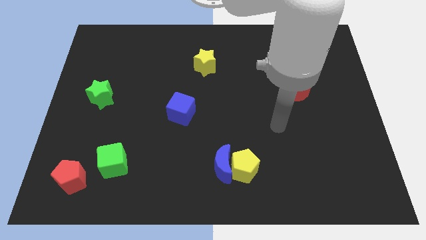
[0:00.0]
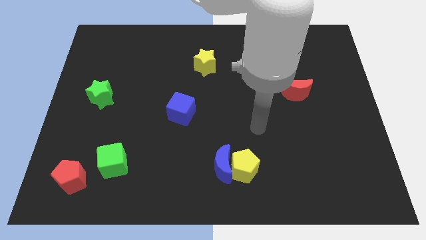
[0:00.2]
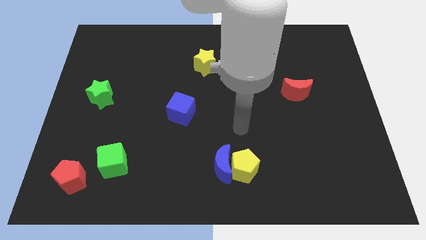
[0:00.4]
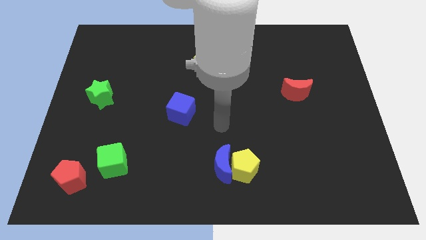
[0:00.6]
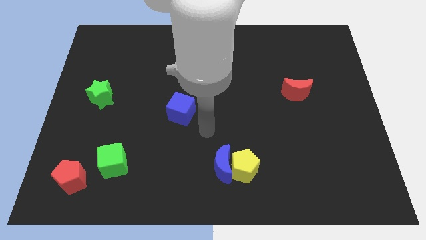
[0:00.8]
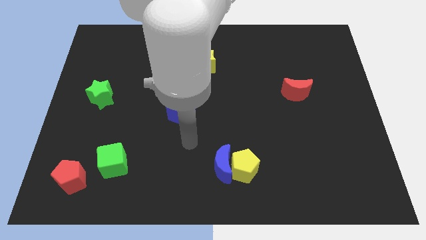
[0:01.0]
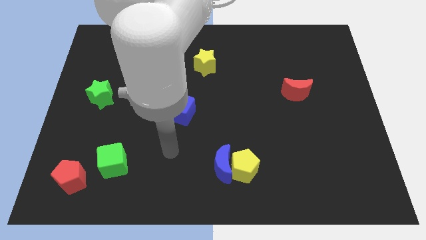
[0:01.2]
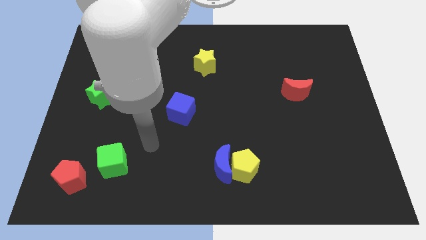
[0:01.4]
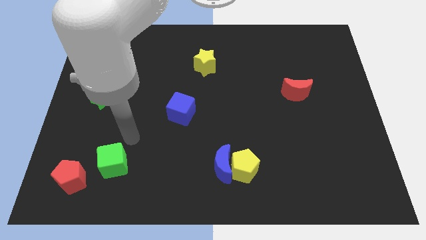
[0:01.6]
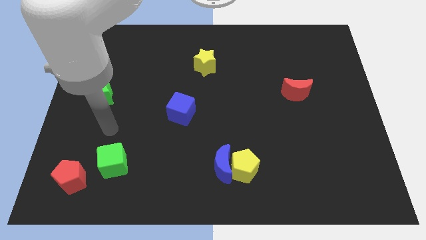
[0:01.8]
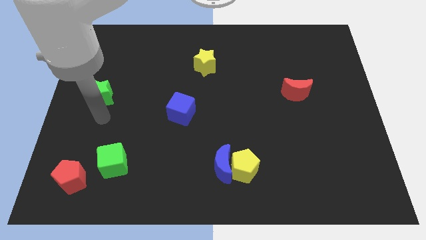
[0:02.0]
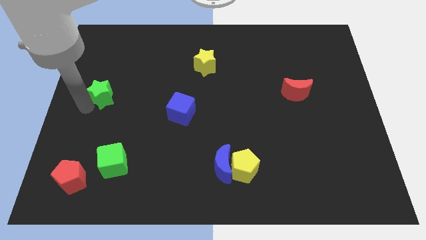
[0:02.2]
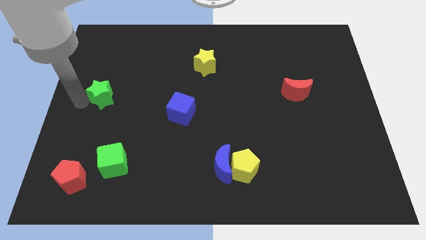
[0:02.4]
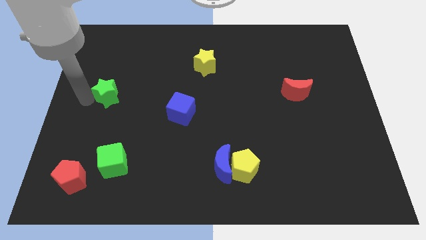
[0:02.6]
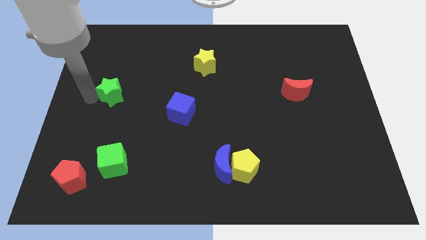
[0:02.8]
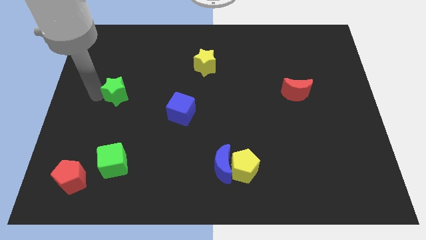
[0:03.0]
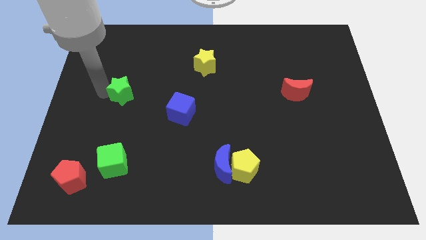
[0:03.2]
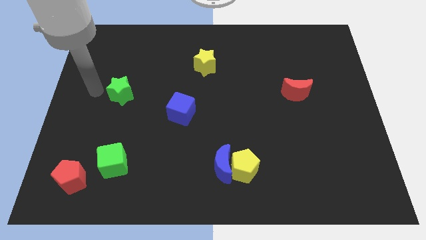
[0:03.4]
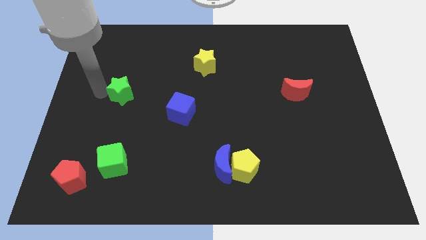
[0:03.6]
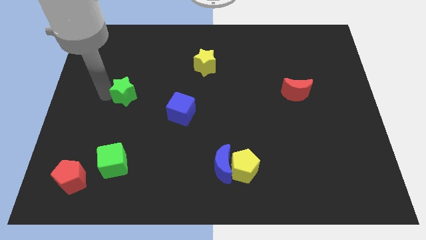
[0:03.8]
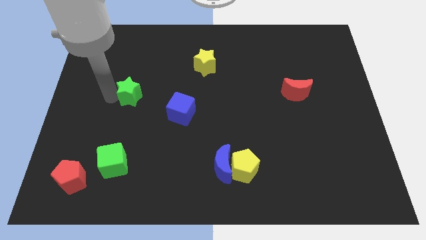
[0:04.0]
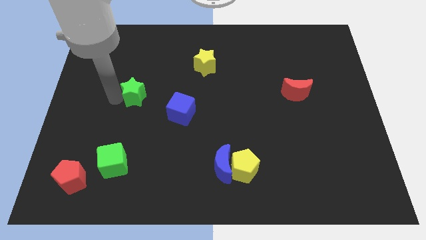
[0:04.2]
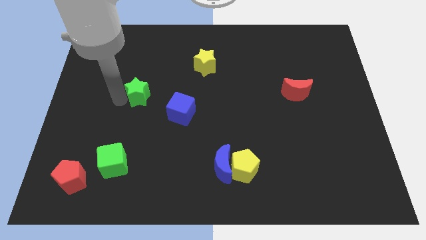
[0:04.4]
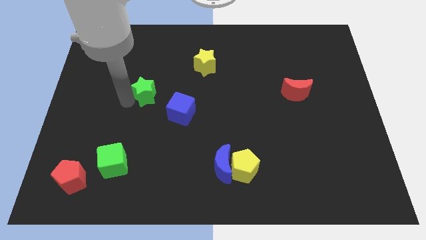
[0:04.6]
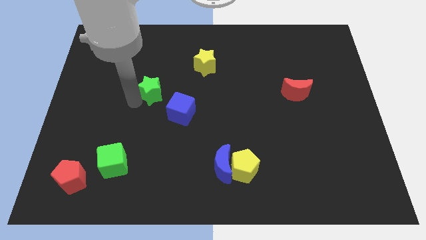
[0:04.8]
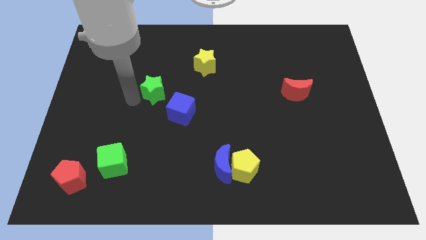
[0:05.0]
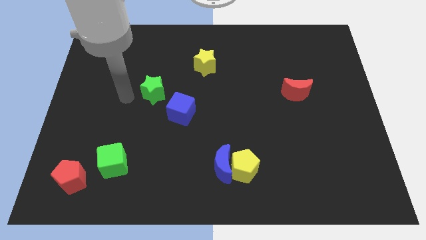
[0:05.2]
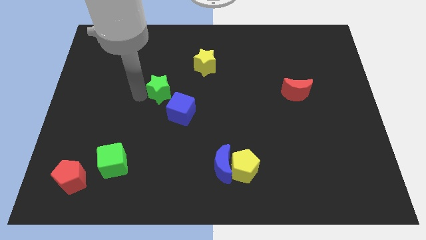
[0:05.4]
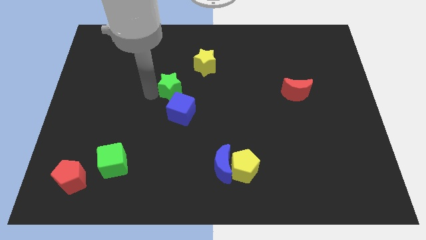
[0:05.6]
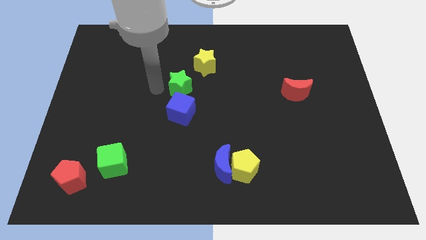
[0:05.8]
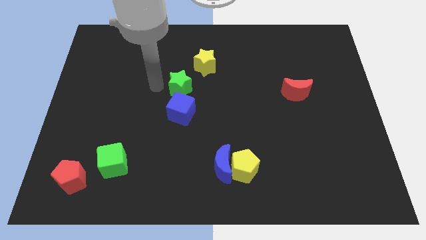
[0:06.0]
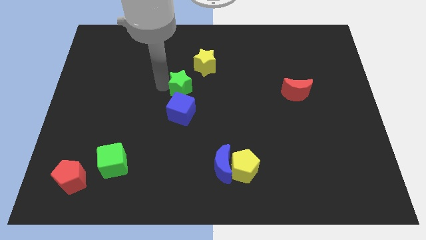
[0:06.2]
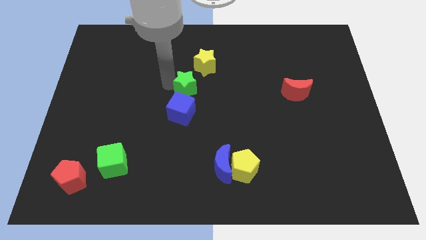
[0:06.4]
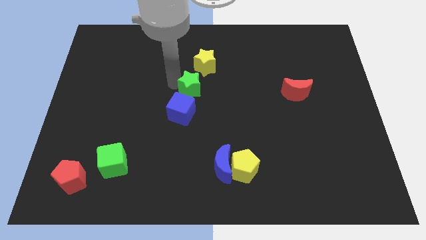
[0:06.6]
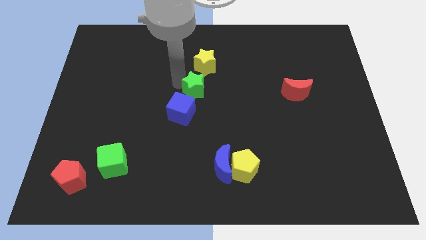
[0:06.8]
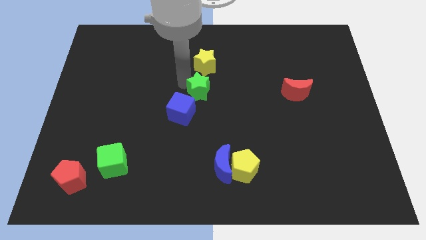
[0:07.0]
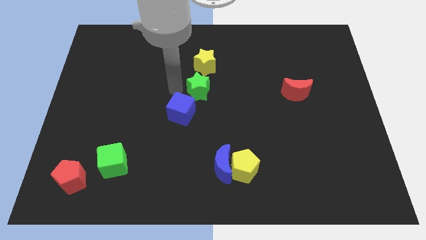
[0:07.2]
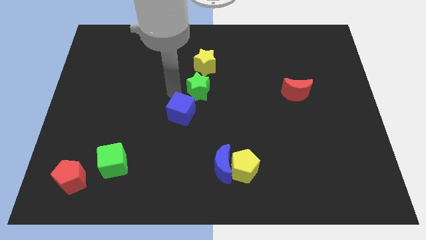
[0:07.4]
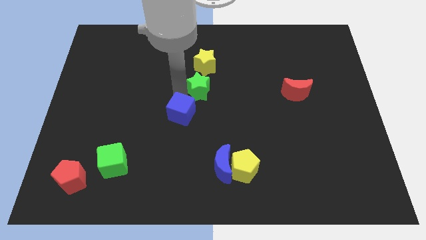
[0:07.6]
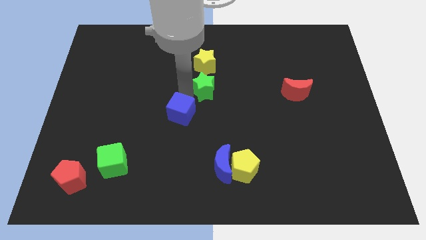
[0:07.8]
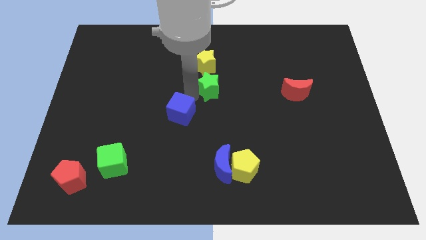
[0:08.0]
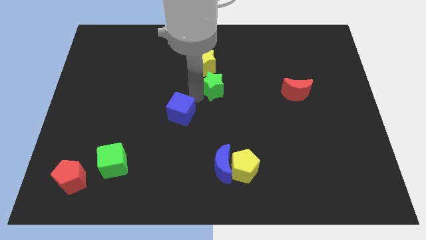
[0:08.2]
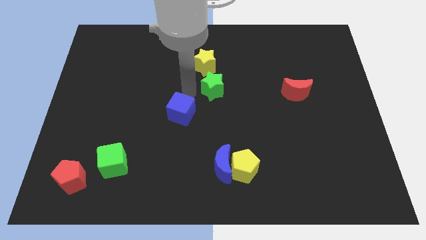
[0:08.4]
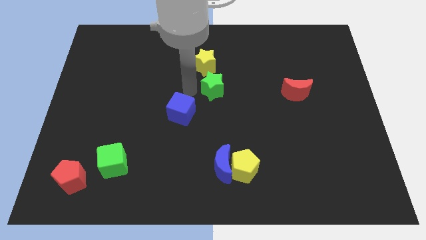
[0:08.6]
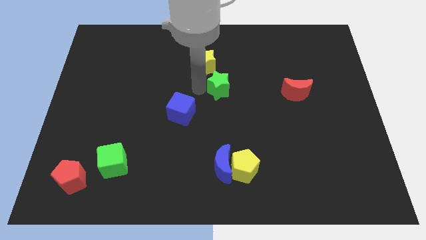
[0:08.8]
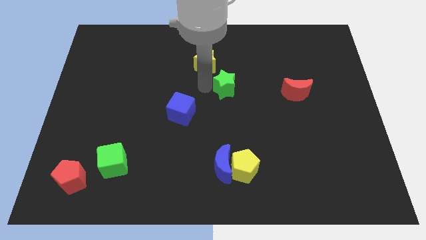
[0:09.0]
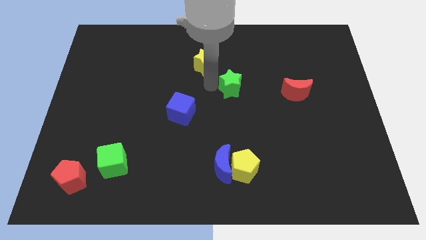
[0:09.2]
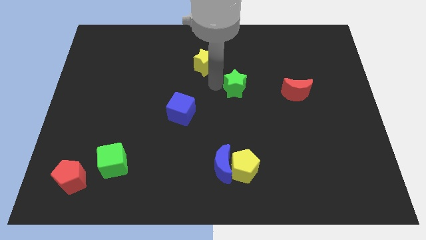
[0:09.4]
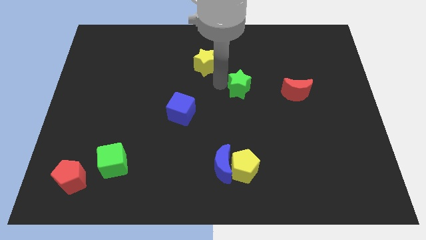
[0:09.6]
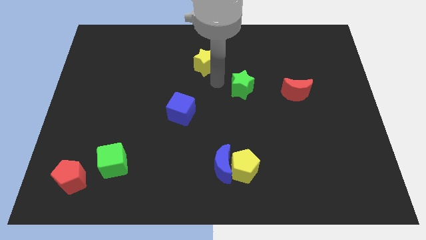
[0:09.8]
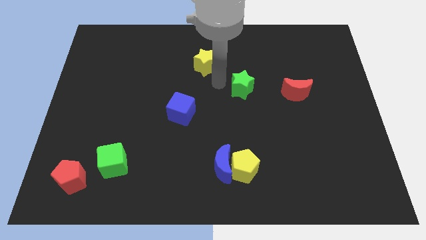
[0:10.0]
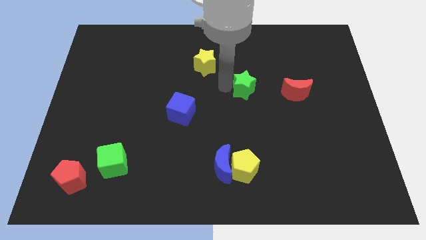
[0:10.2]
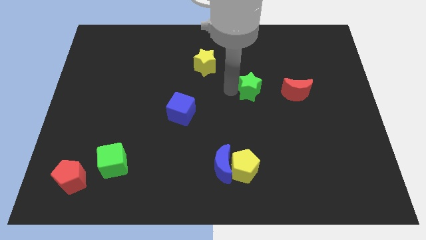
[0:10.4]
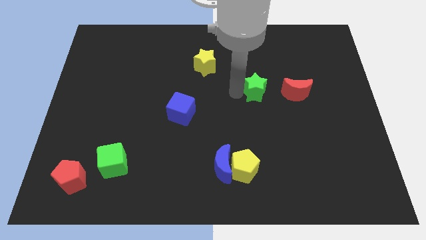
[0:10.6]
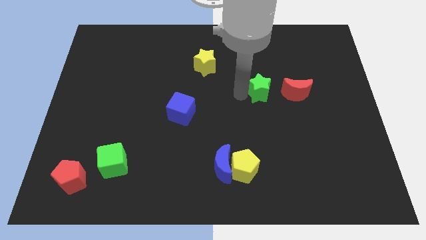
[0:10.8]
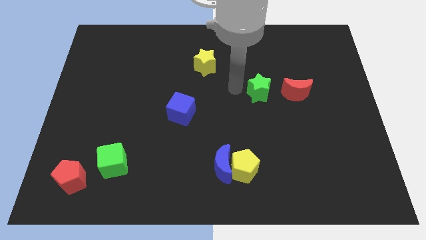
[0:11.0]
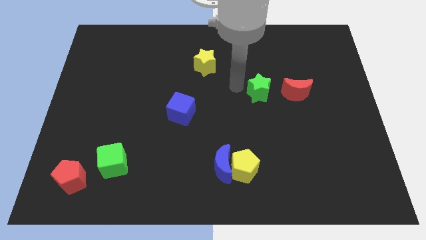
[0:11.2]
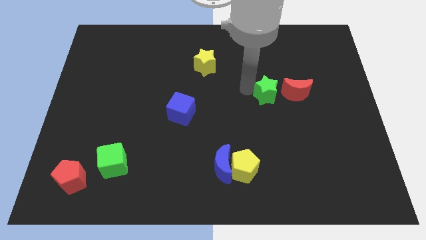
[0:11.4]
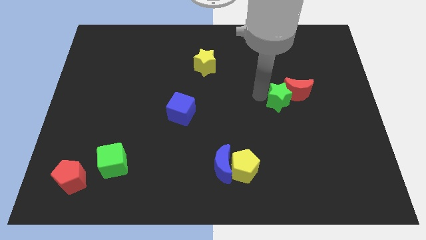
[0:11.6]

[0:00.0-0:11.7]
slide the green star towards the red moon
